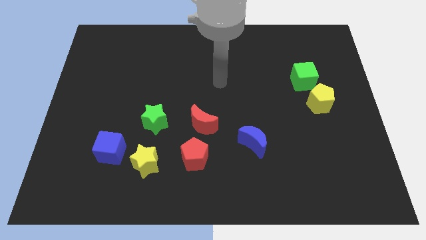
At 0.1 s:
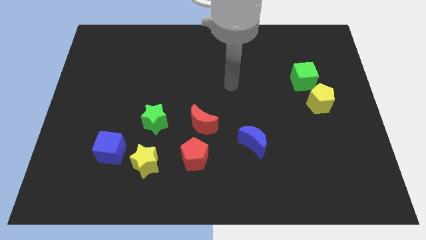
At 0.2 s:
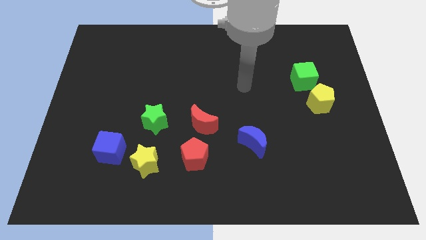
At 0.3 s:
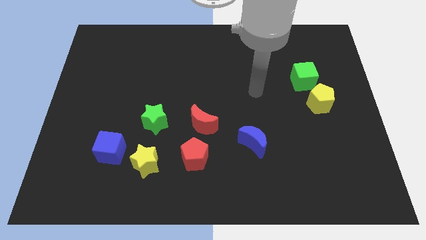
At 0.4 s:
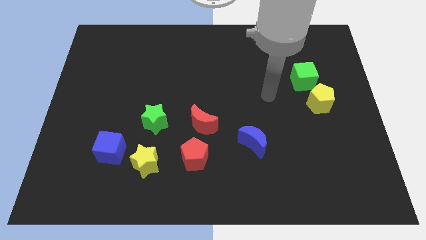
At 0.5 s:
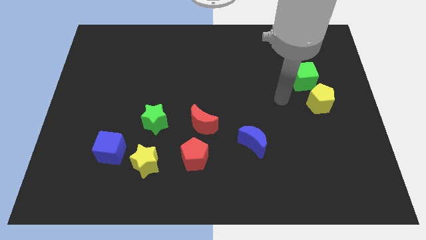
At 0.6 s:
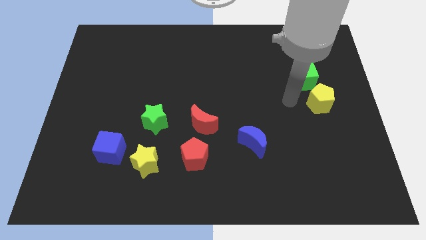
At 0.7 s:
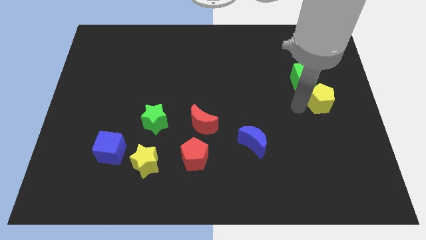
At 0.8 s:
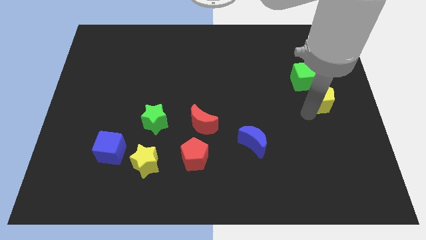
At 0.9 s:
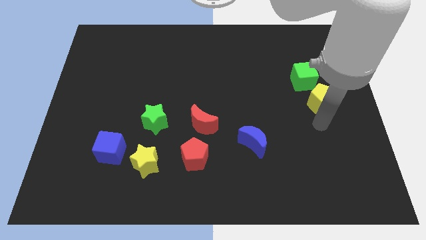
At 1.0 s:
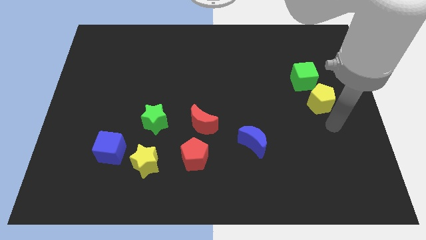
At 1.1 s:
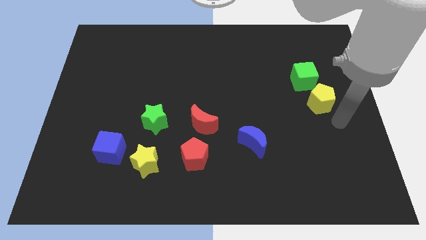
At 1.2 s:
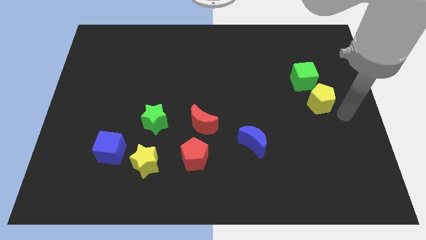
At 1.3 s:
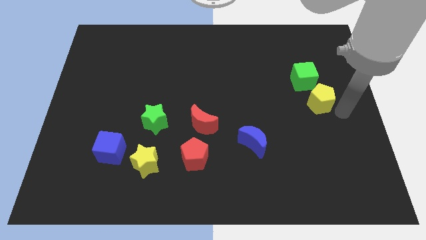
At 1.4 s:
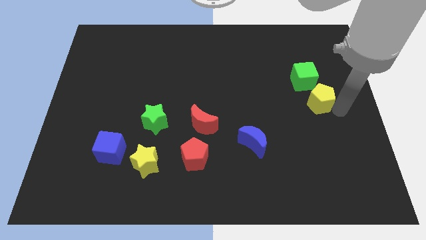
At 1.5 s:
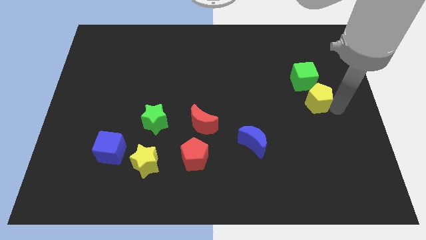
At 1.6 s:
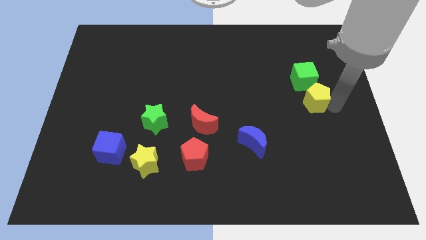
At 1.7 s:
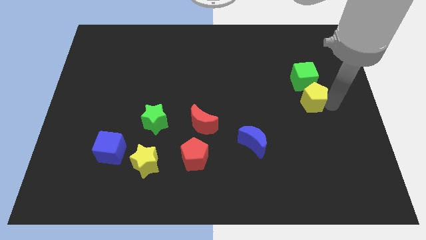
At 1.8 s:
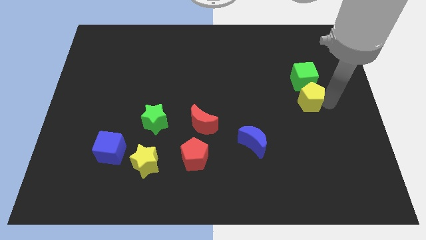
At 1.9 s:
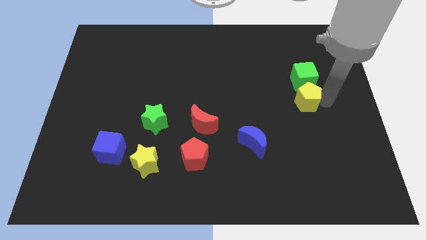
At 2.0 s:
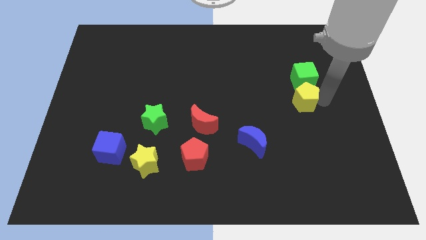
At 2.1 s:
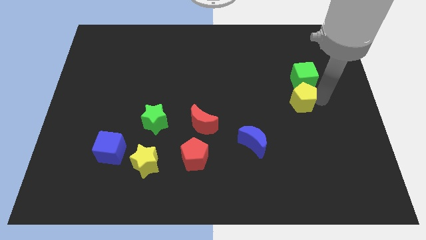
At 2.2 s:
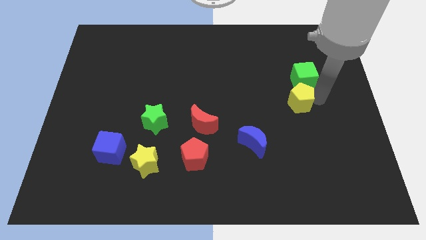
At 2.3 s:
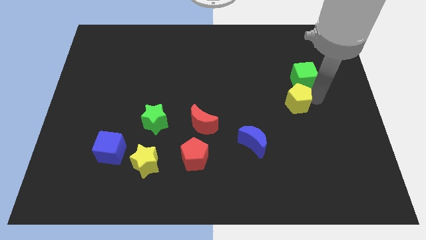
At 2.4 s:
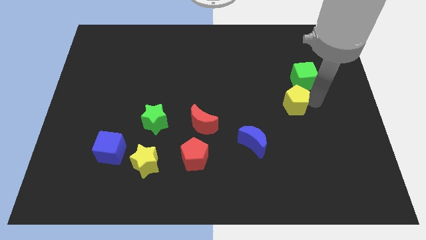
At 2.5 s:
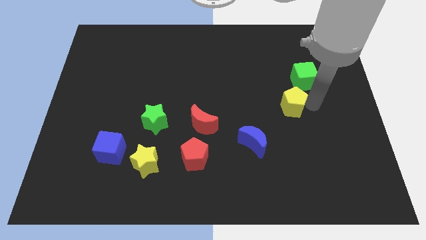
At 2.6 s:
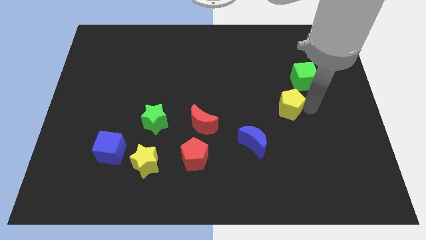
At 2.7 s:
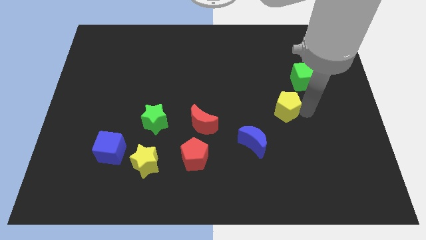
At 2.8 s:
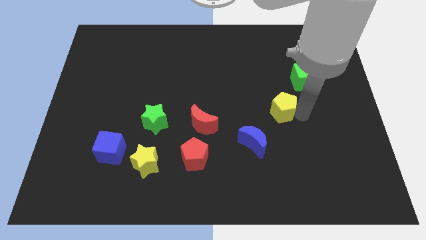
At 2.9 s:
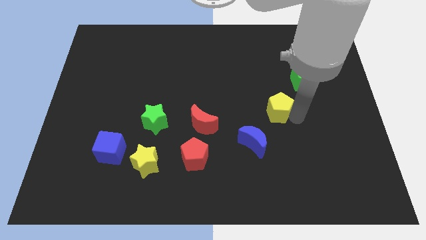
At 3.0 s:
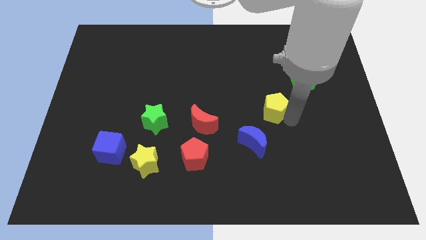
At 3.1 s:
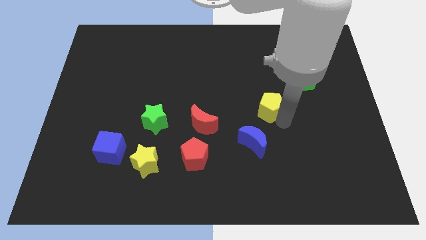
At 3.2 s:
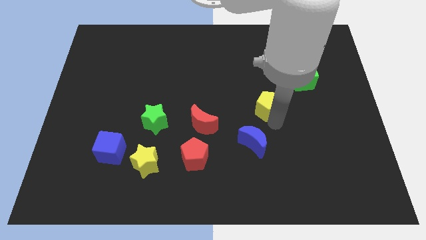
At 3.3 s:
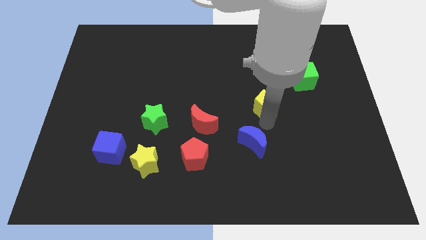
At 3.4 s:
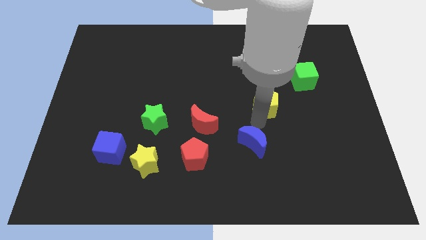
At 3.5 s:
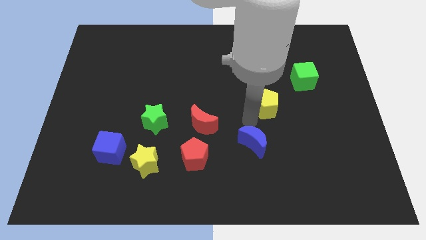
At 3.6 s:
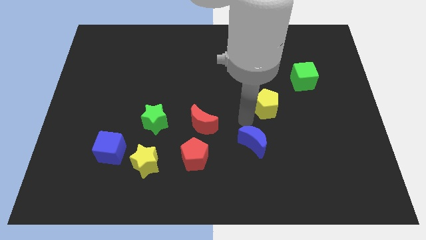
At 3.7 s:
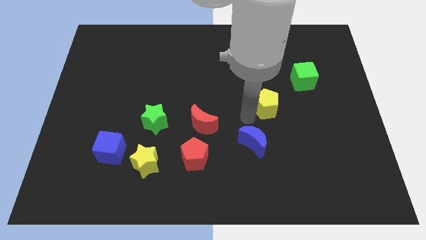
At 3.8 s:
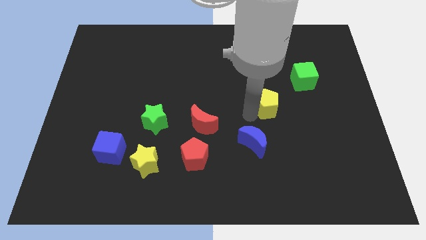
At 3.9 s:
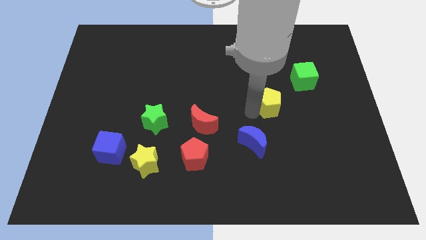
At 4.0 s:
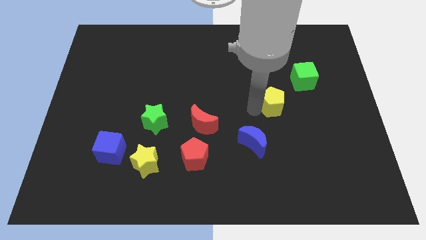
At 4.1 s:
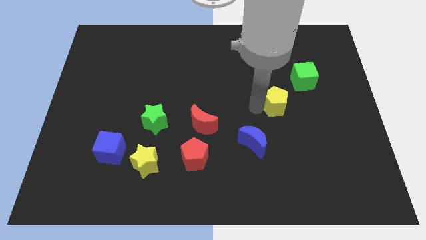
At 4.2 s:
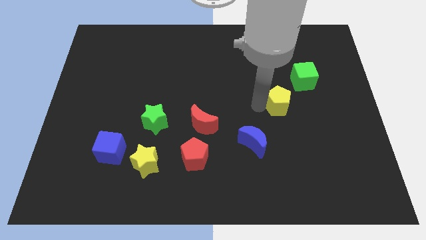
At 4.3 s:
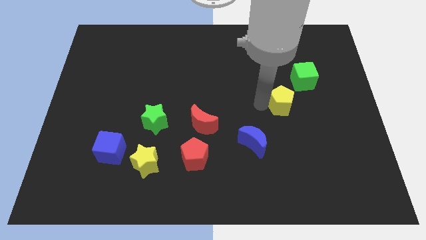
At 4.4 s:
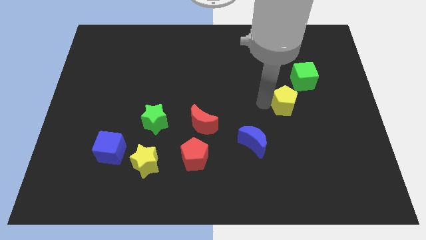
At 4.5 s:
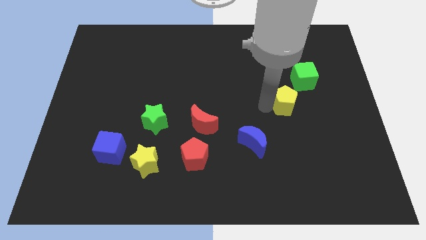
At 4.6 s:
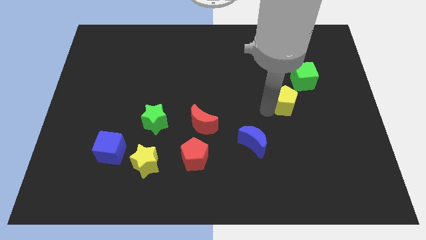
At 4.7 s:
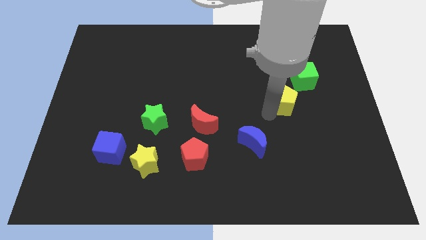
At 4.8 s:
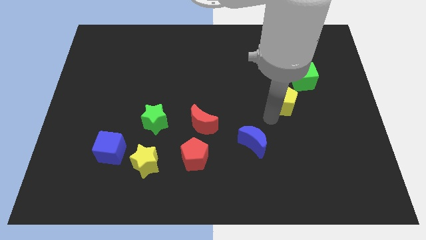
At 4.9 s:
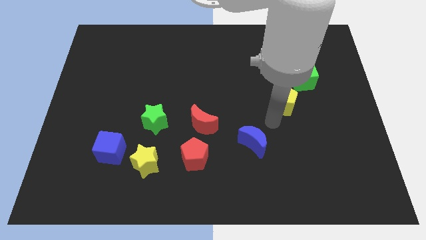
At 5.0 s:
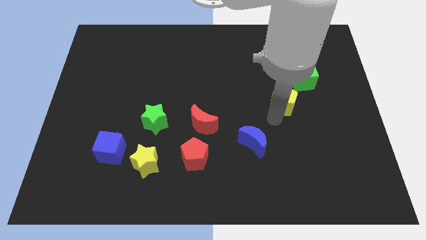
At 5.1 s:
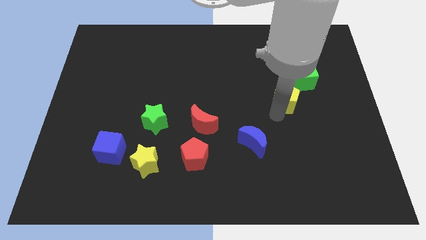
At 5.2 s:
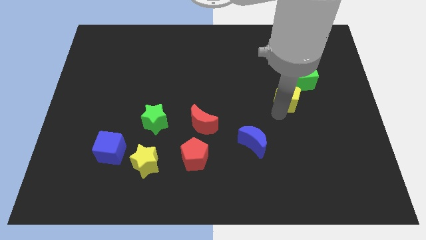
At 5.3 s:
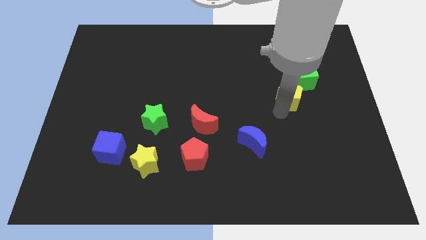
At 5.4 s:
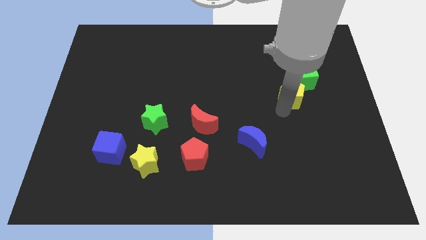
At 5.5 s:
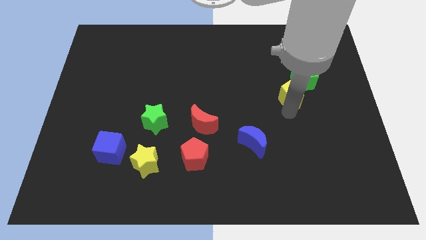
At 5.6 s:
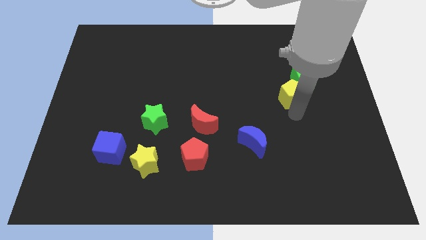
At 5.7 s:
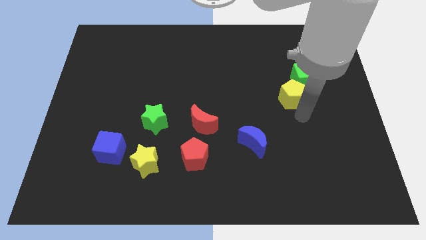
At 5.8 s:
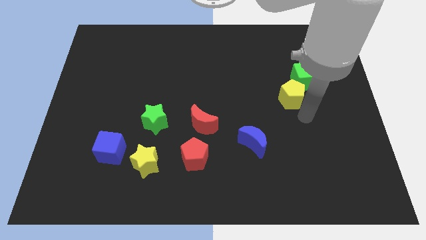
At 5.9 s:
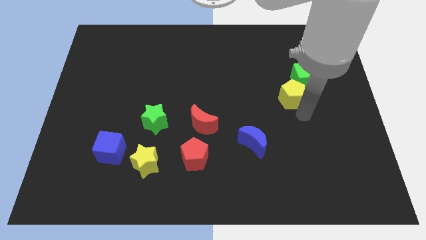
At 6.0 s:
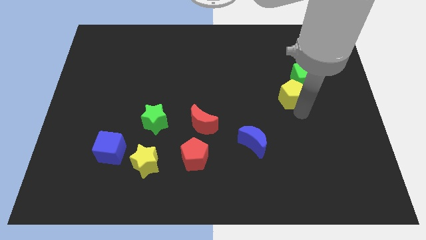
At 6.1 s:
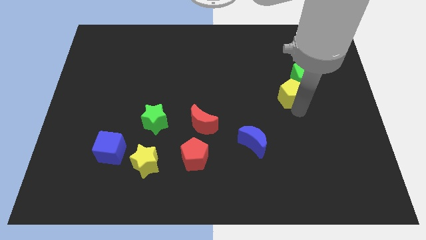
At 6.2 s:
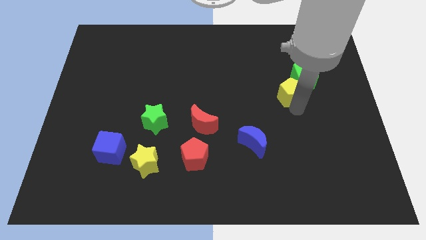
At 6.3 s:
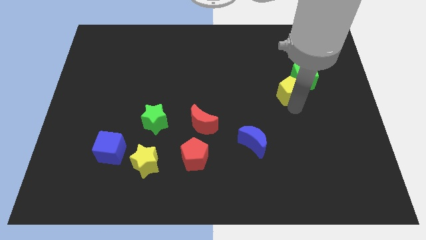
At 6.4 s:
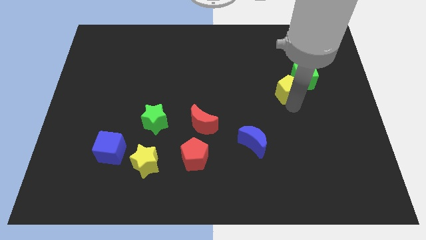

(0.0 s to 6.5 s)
push the yellow pentagon upwards and then to the left somewhat

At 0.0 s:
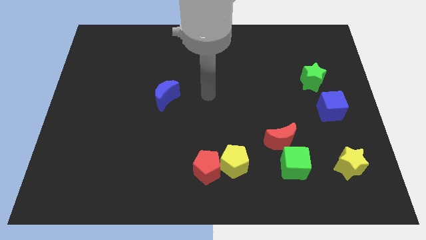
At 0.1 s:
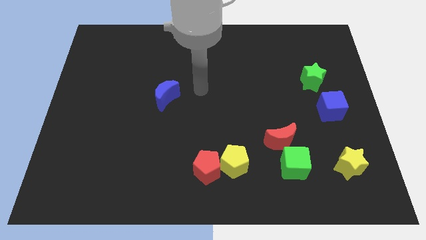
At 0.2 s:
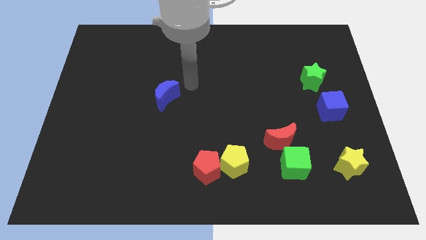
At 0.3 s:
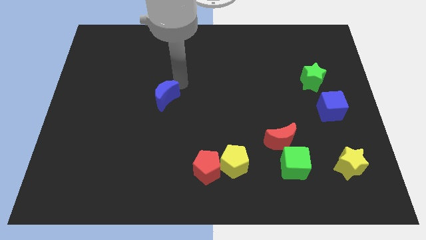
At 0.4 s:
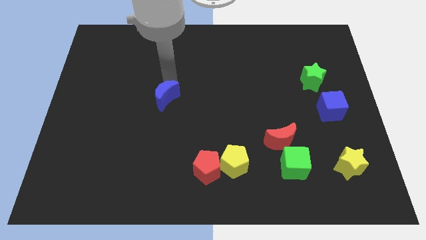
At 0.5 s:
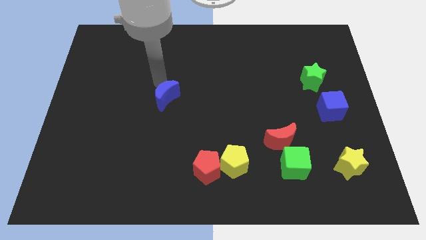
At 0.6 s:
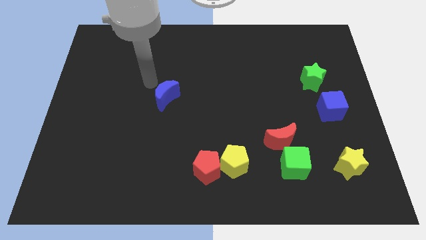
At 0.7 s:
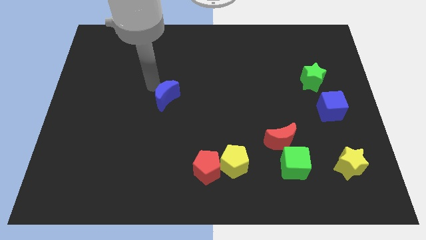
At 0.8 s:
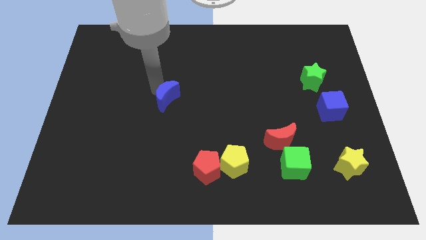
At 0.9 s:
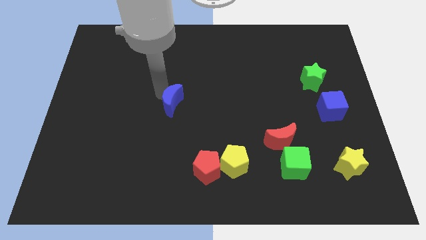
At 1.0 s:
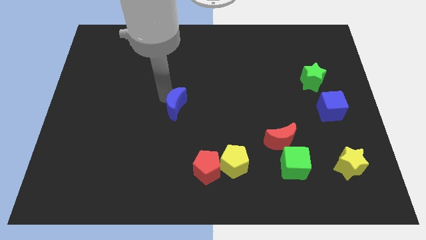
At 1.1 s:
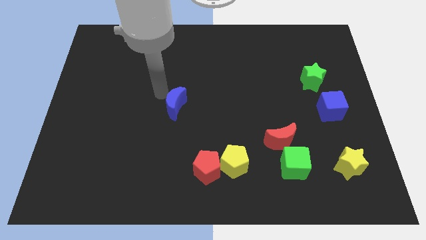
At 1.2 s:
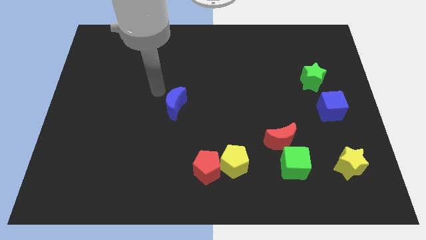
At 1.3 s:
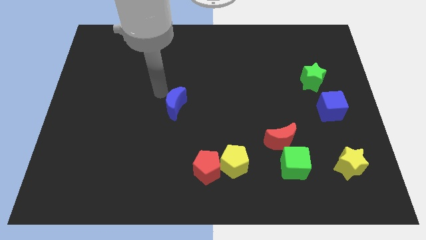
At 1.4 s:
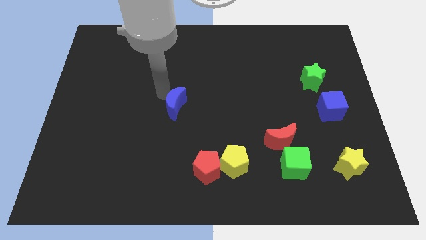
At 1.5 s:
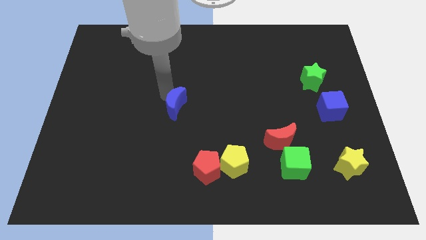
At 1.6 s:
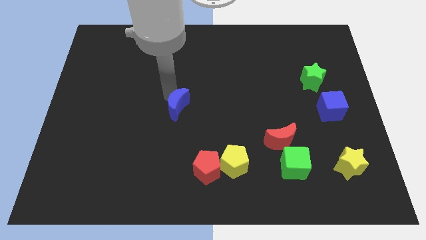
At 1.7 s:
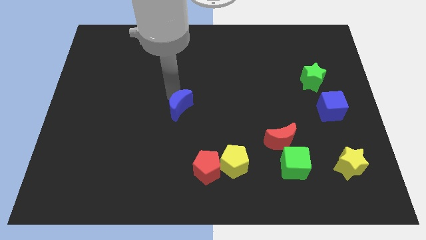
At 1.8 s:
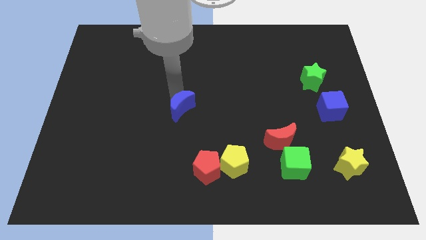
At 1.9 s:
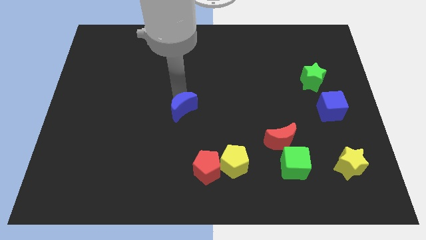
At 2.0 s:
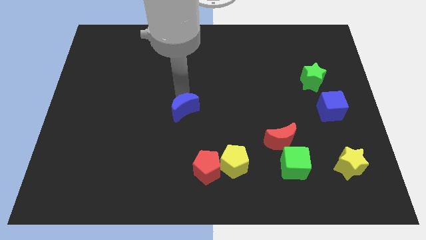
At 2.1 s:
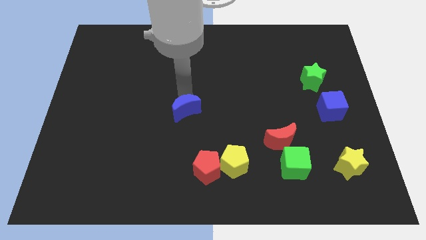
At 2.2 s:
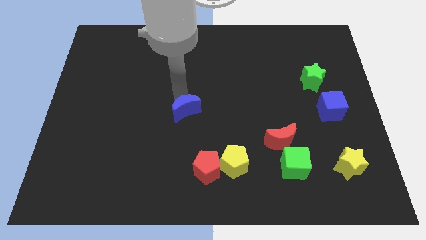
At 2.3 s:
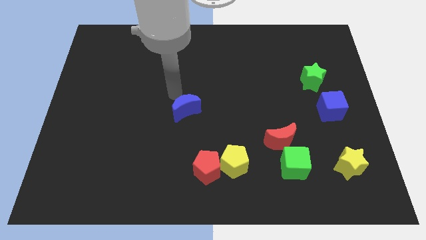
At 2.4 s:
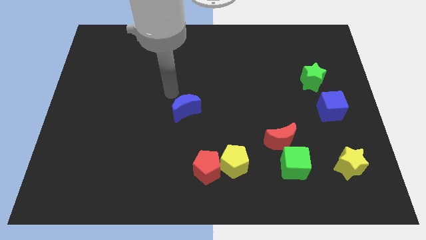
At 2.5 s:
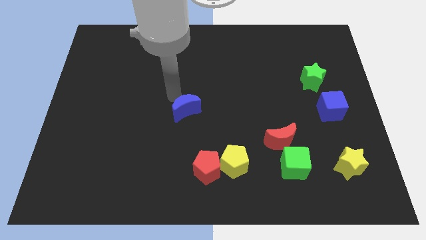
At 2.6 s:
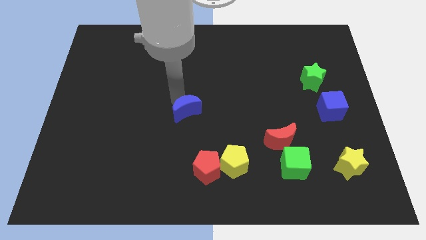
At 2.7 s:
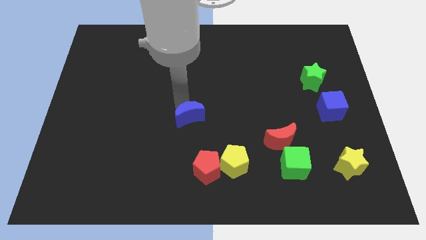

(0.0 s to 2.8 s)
push the blue moon down and then right a bit
